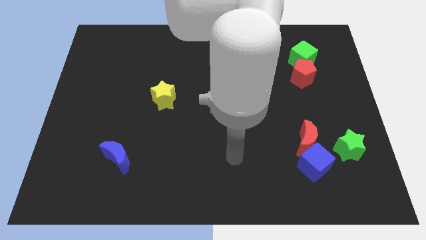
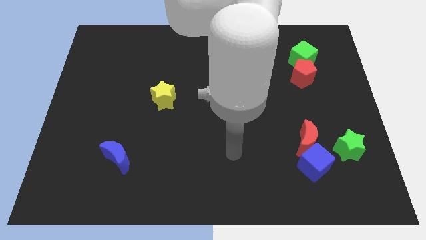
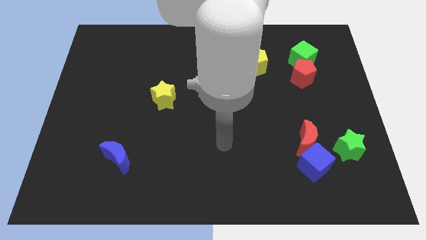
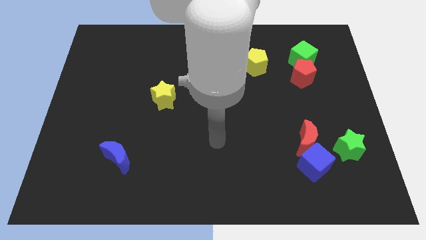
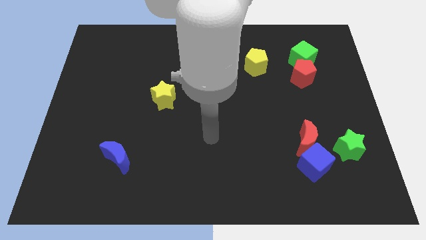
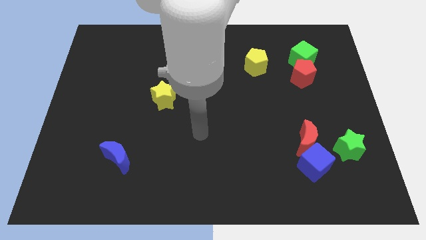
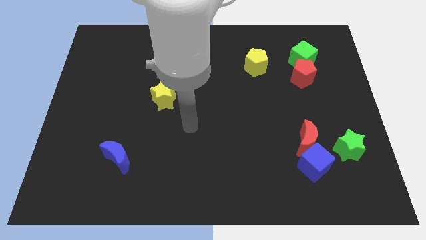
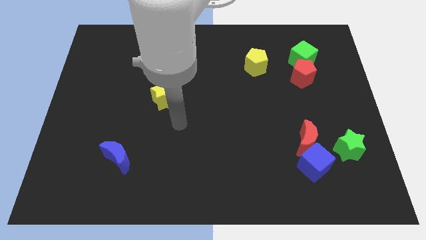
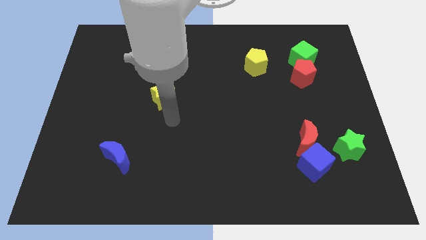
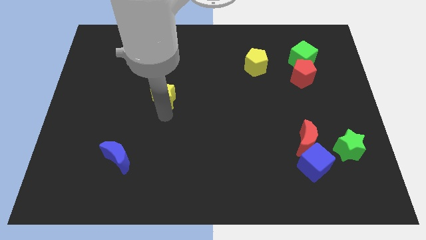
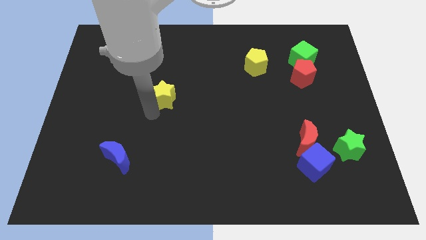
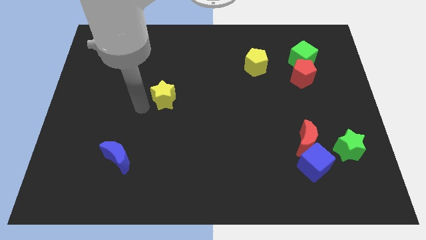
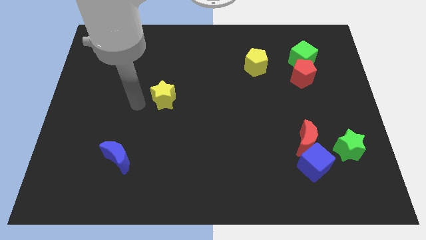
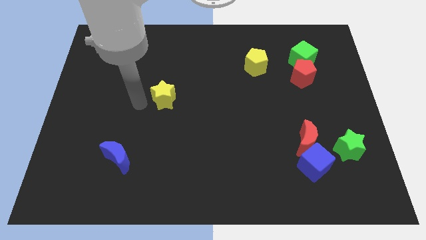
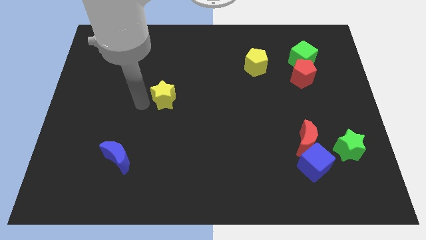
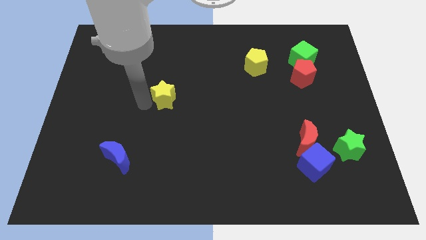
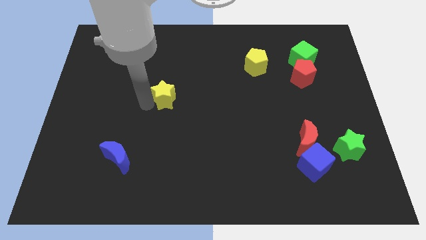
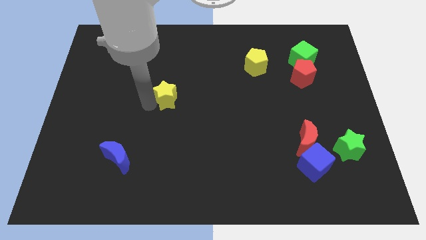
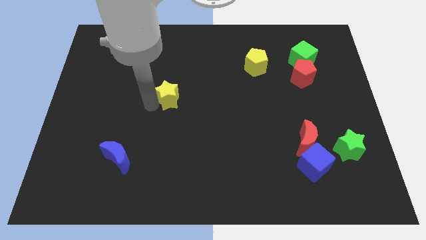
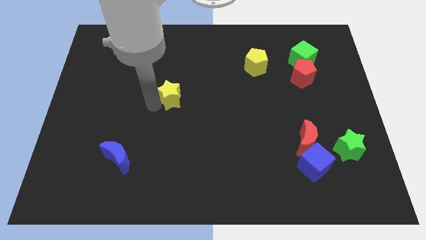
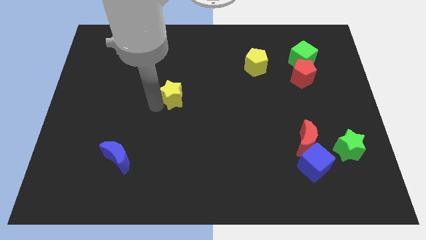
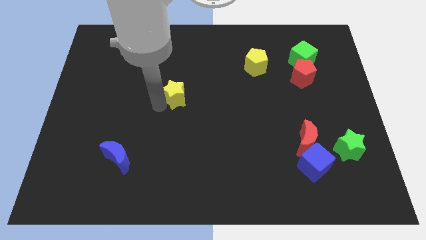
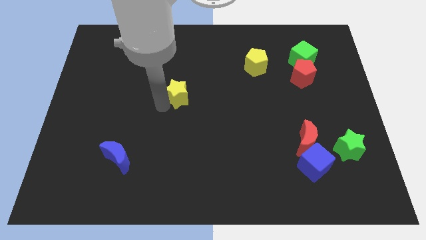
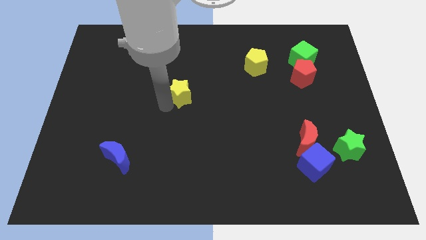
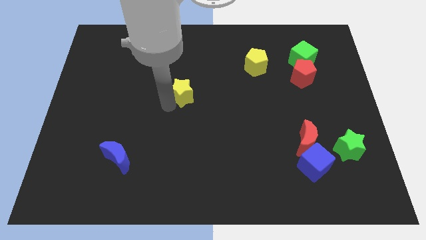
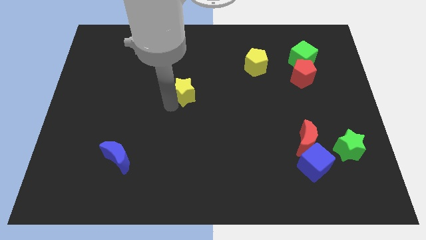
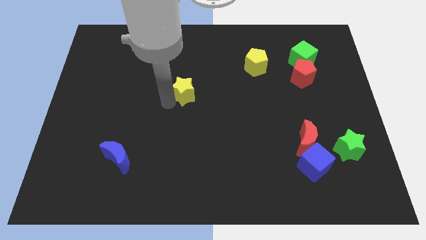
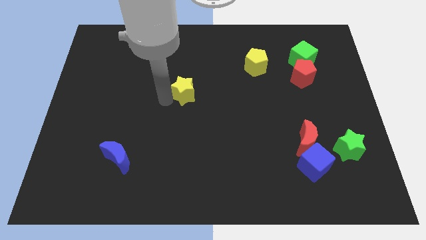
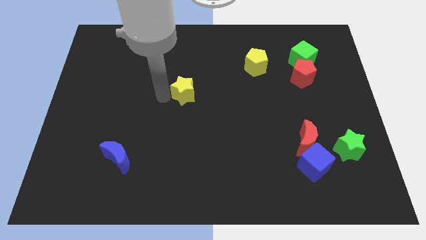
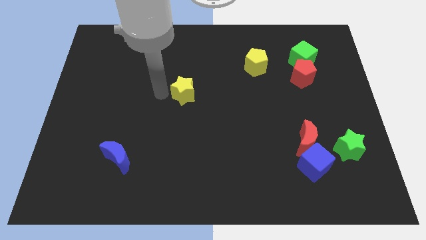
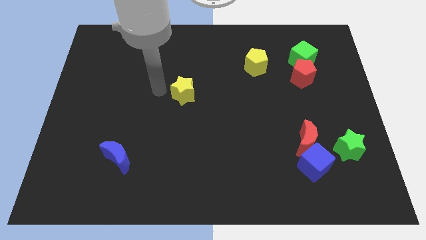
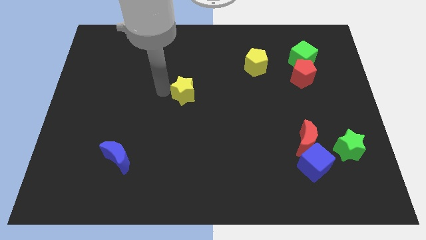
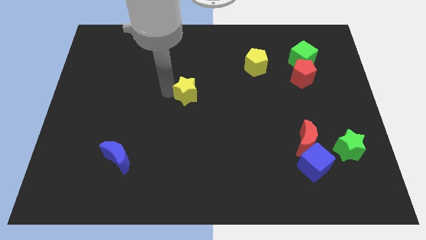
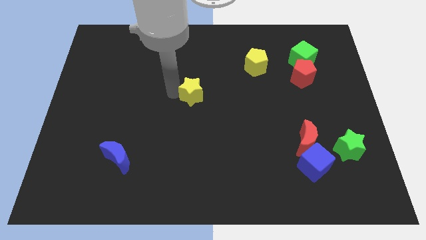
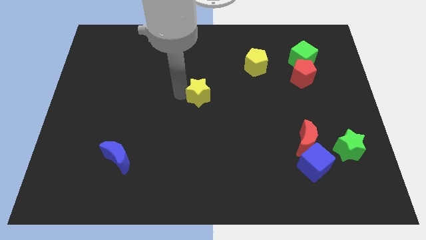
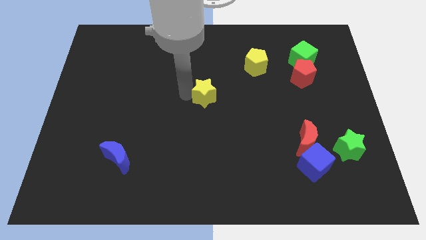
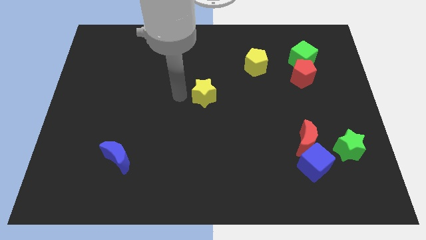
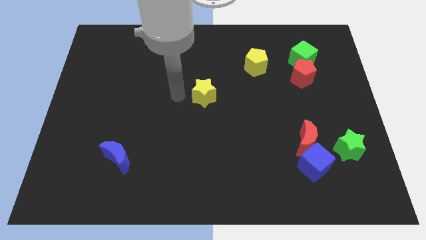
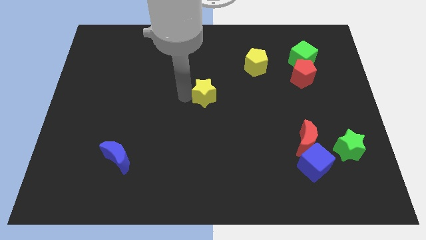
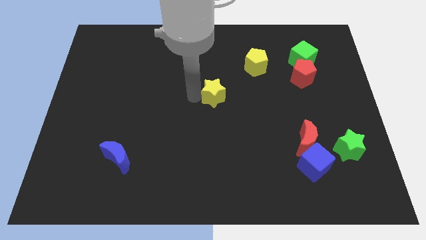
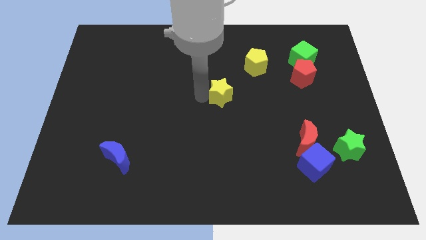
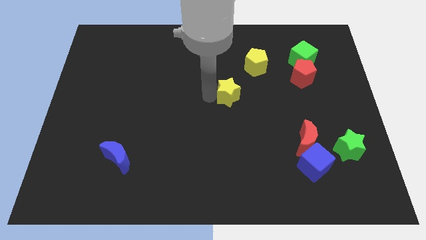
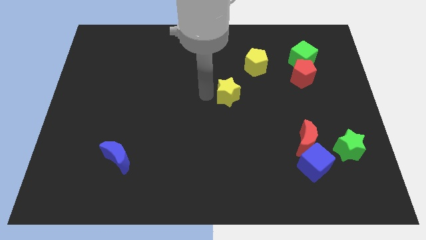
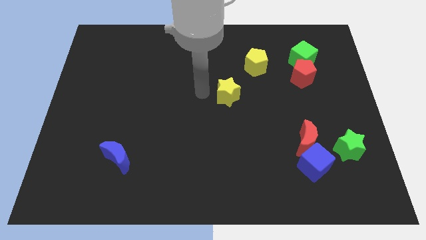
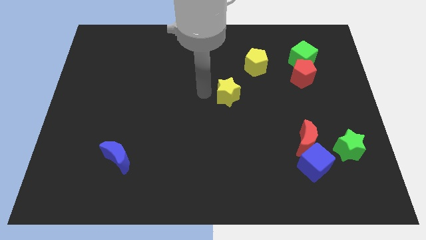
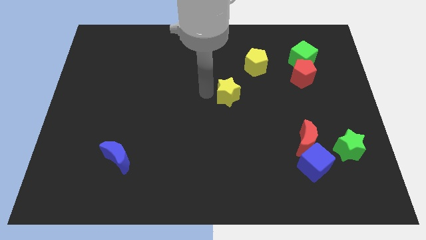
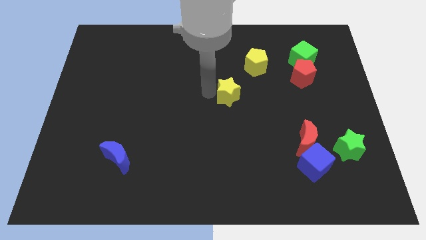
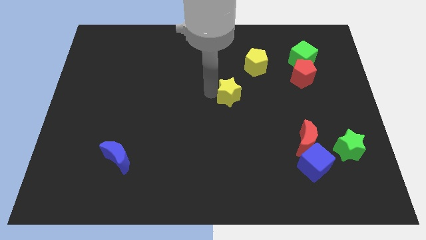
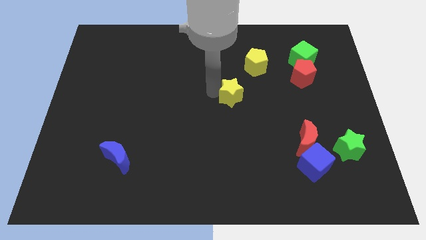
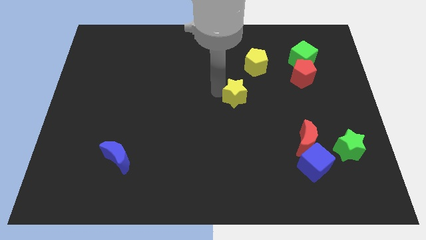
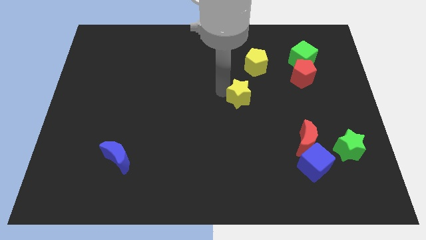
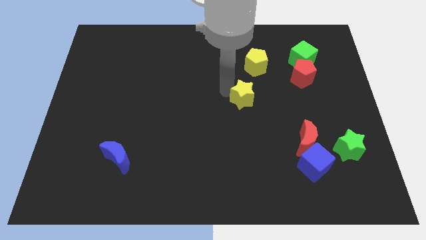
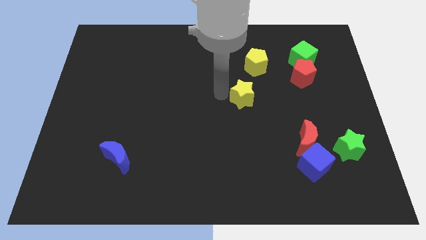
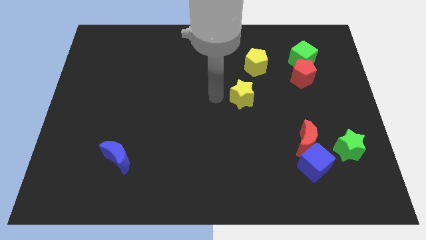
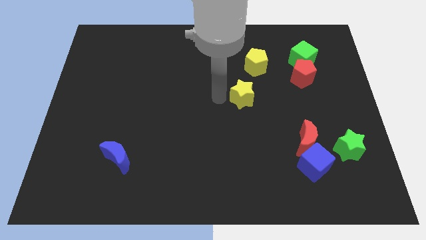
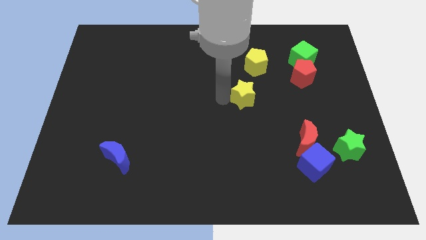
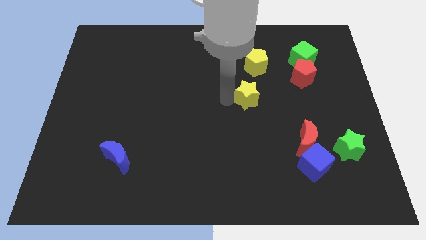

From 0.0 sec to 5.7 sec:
push the yellow star to the right

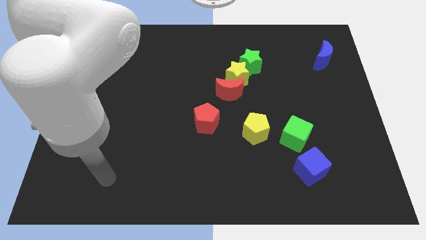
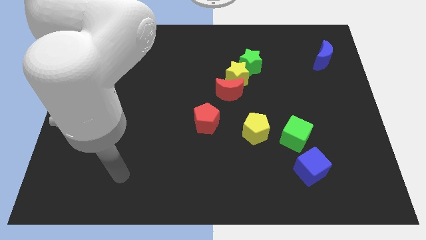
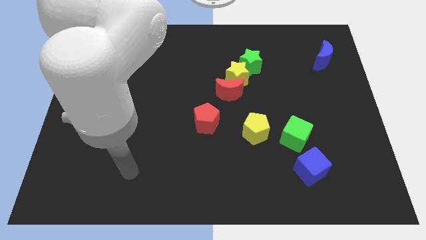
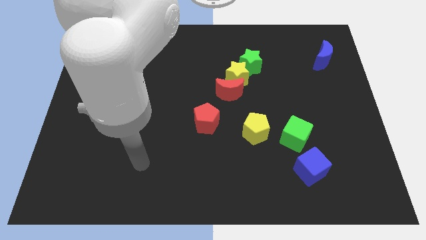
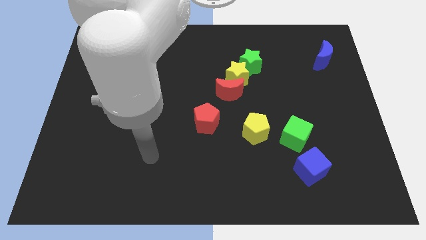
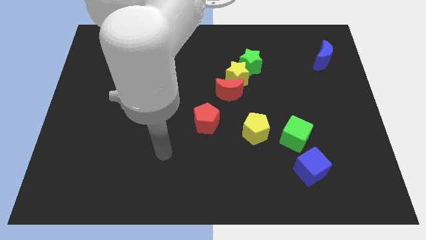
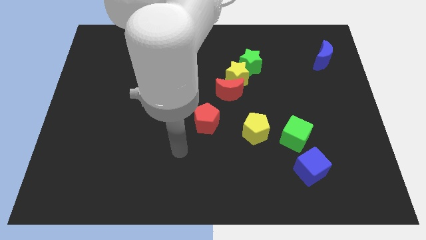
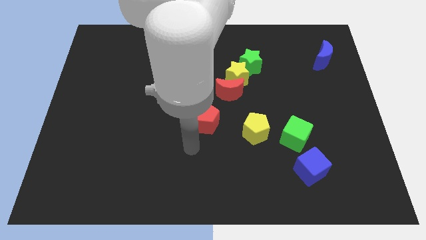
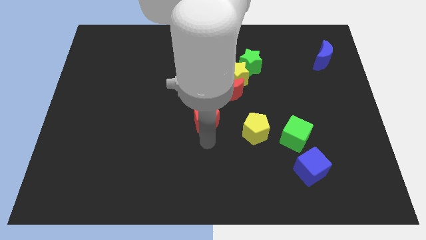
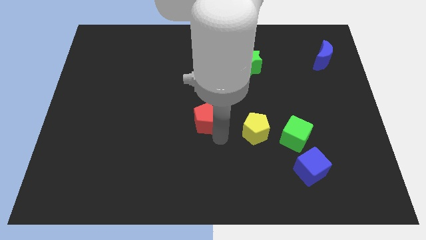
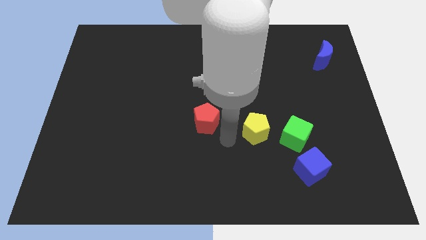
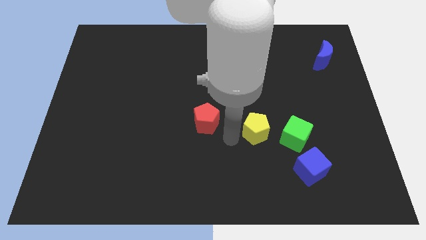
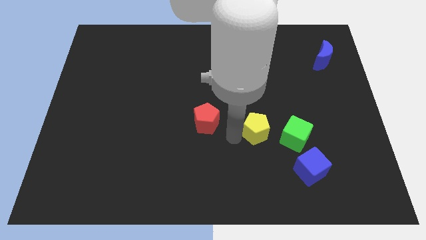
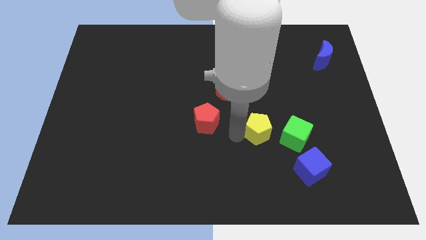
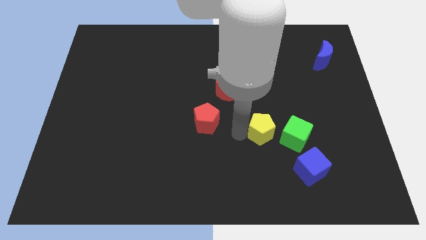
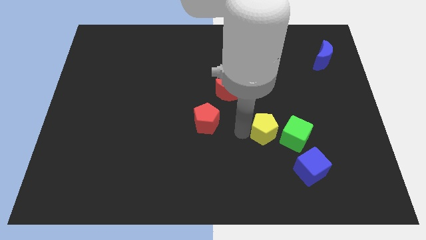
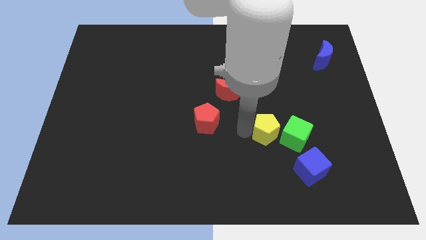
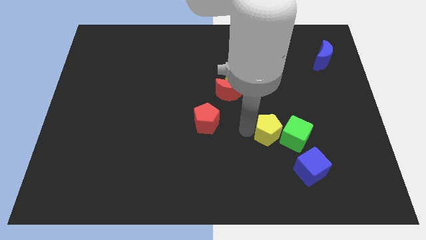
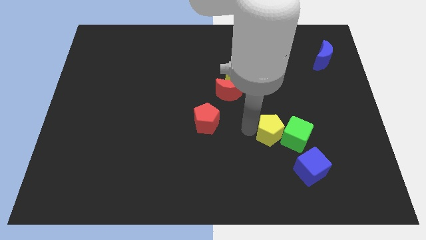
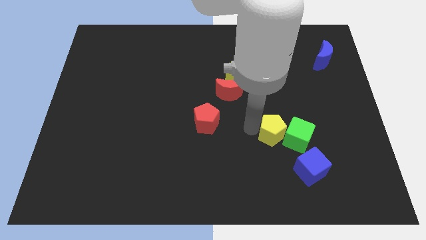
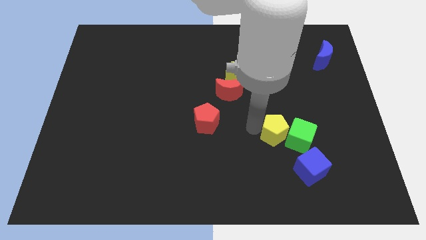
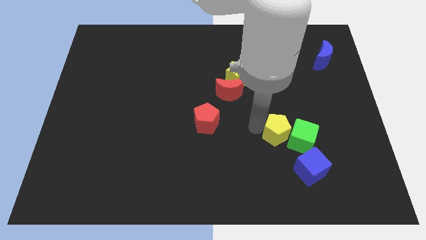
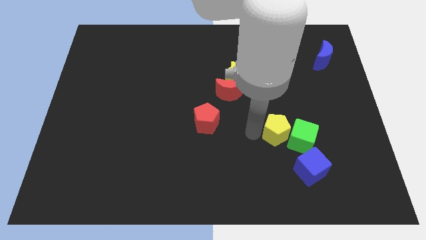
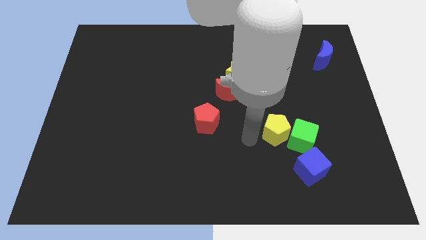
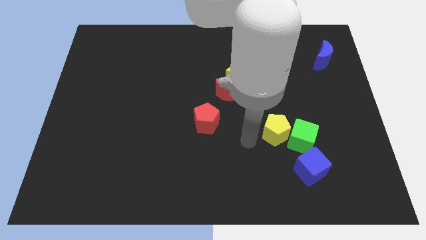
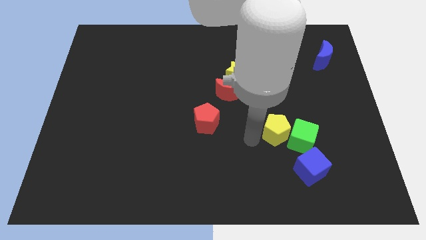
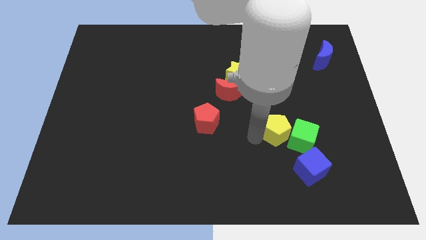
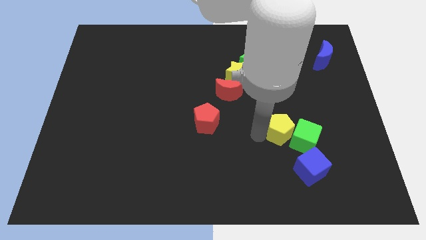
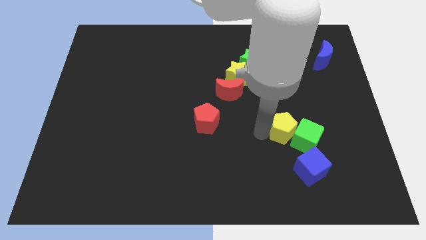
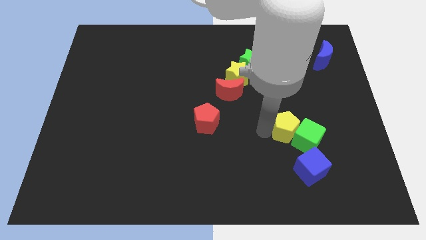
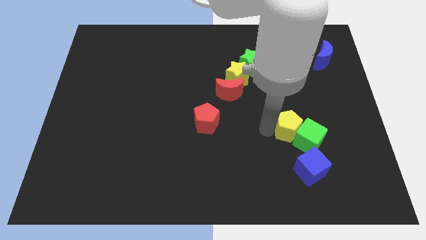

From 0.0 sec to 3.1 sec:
slightly move the yellow pentagon to the right
